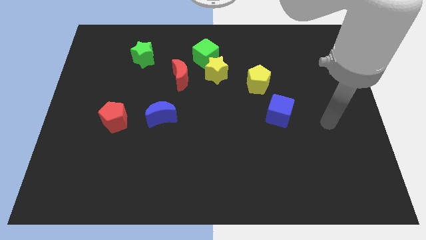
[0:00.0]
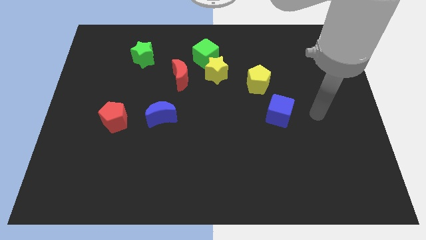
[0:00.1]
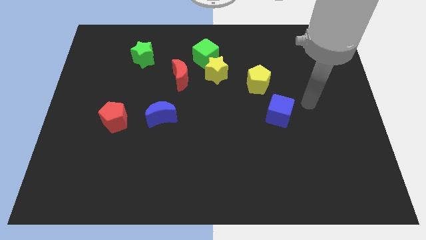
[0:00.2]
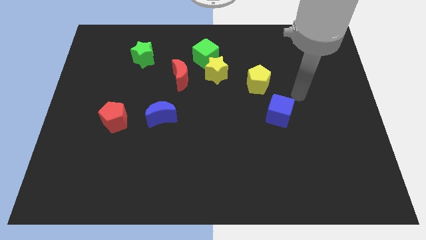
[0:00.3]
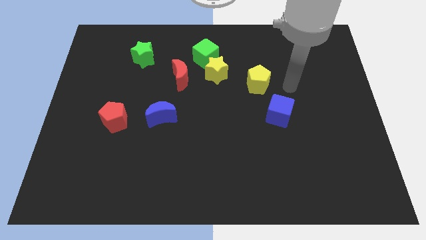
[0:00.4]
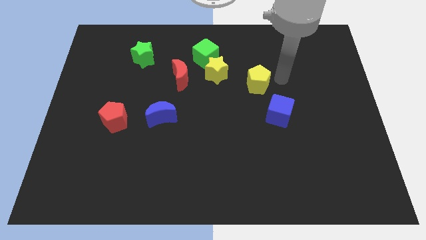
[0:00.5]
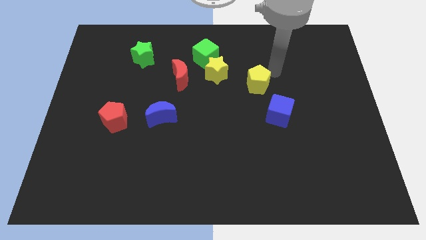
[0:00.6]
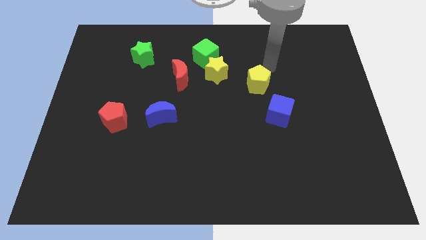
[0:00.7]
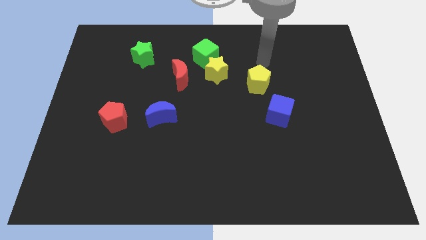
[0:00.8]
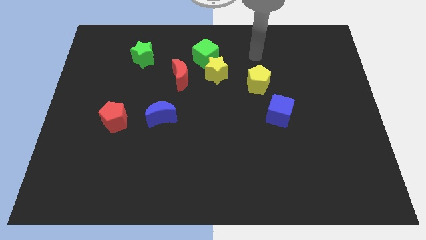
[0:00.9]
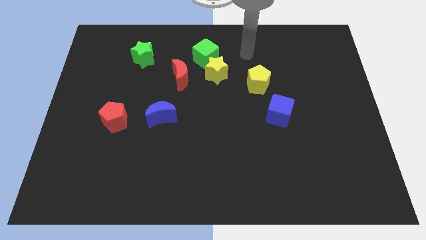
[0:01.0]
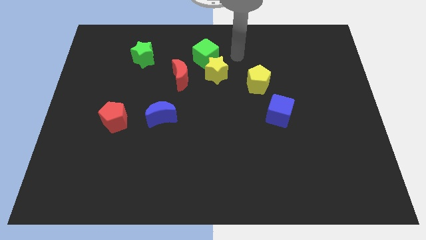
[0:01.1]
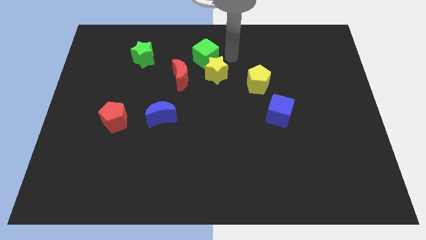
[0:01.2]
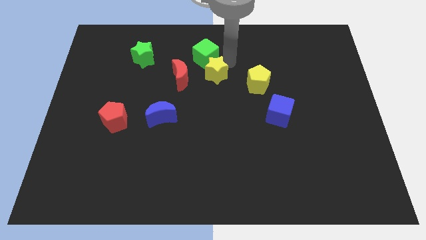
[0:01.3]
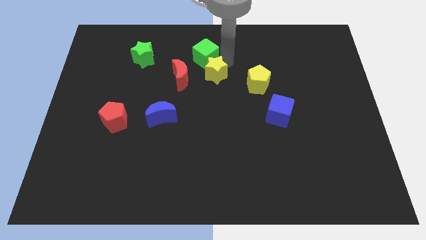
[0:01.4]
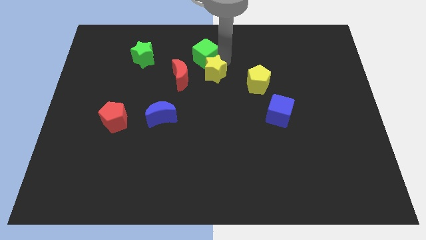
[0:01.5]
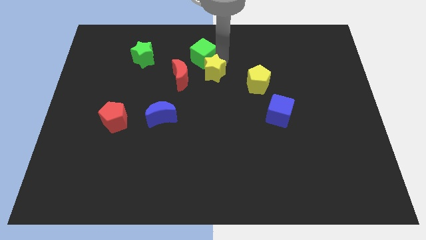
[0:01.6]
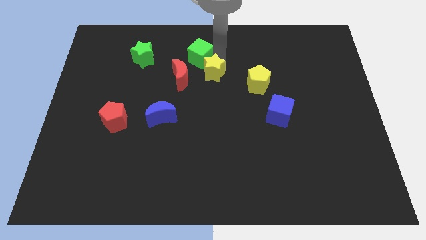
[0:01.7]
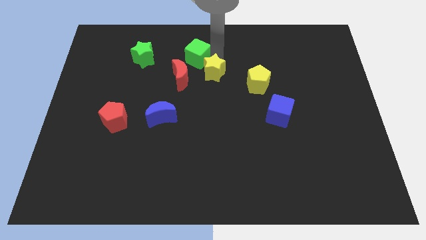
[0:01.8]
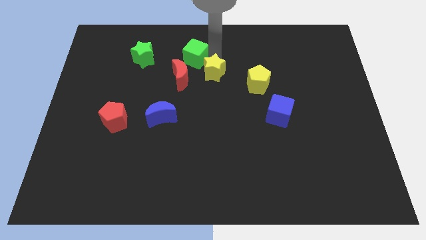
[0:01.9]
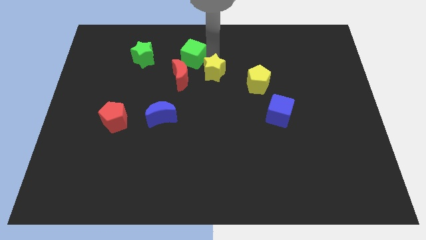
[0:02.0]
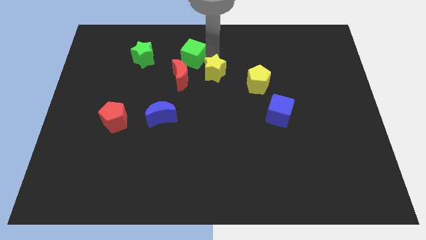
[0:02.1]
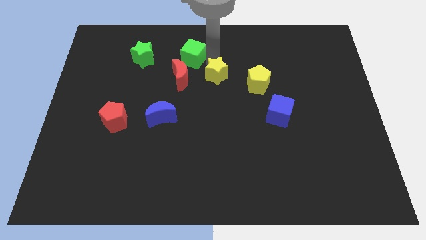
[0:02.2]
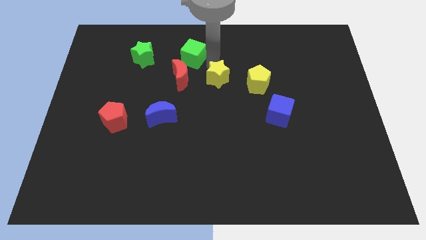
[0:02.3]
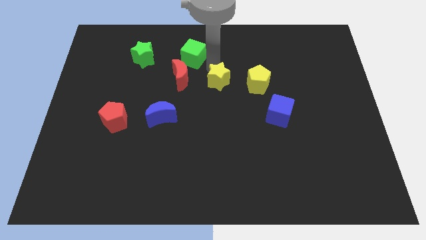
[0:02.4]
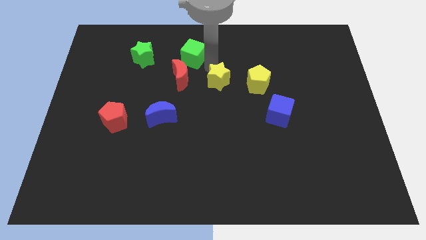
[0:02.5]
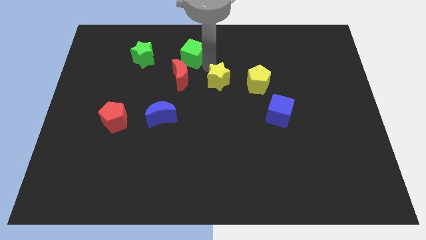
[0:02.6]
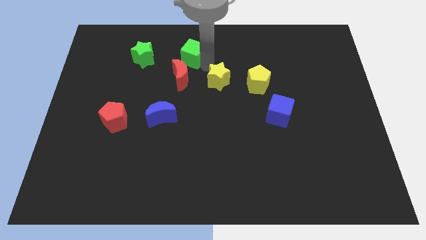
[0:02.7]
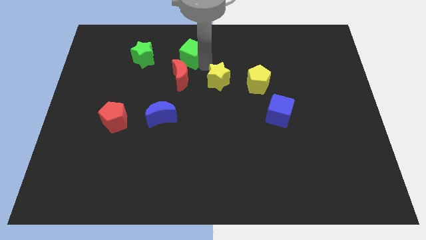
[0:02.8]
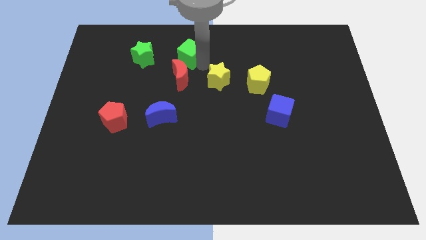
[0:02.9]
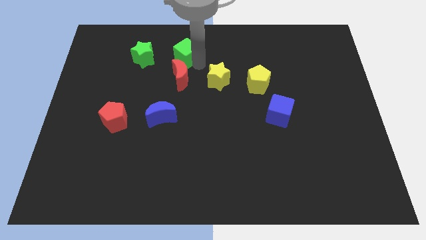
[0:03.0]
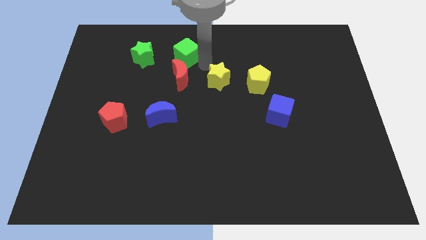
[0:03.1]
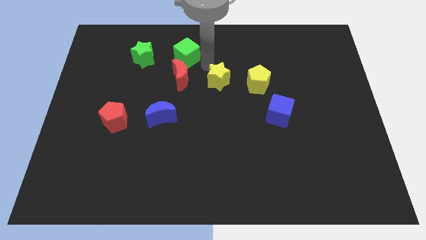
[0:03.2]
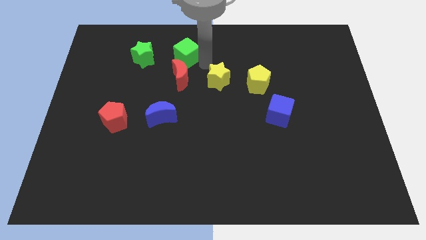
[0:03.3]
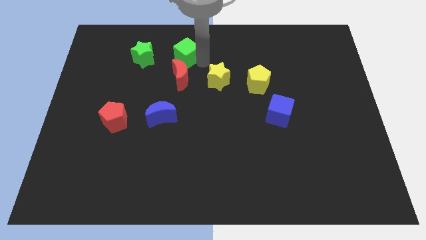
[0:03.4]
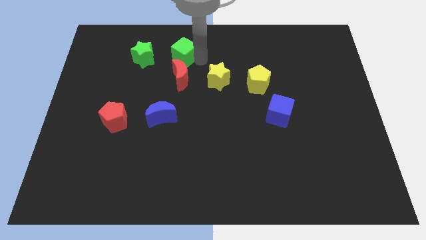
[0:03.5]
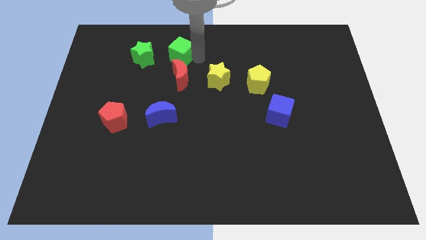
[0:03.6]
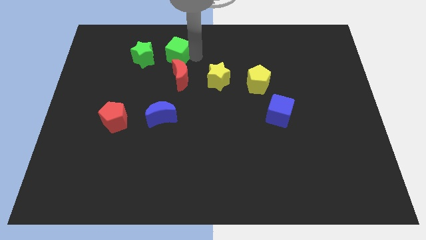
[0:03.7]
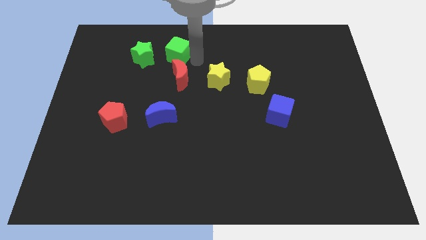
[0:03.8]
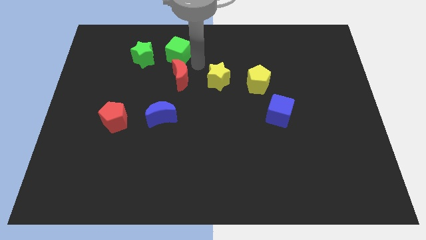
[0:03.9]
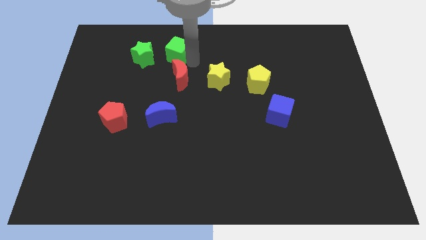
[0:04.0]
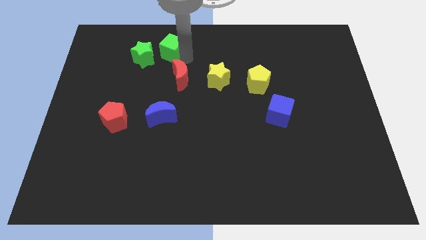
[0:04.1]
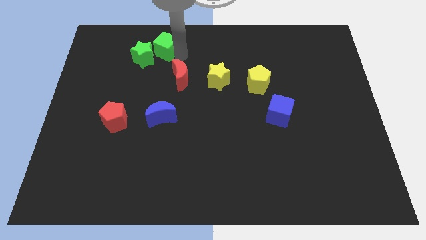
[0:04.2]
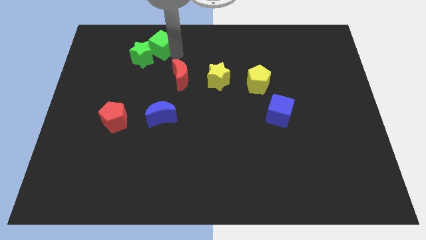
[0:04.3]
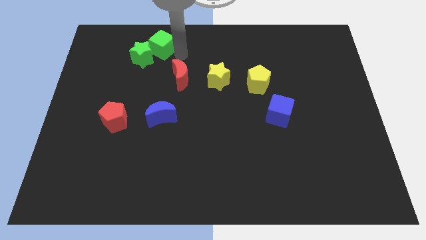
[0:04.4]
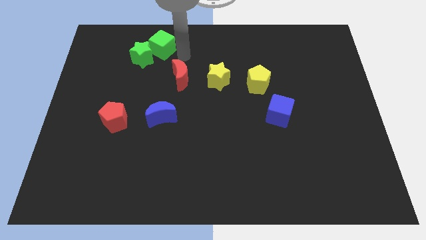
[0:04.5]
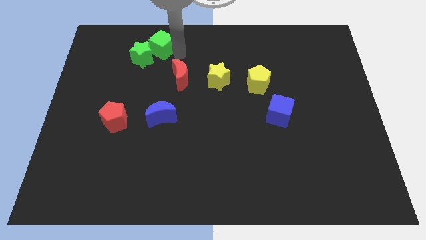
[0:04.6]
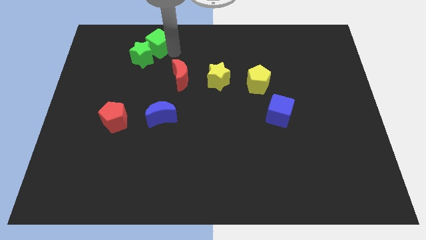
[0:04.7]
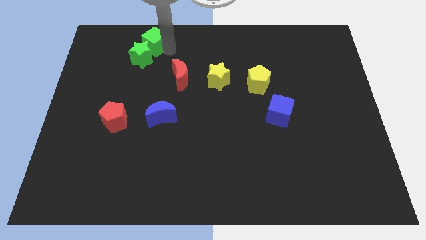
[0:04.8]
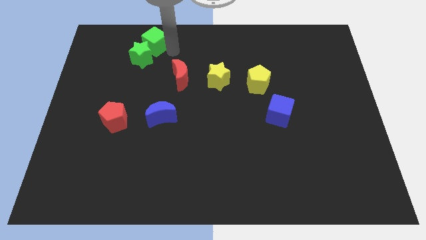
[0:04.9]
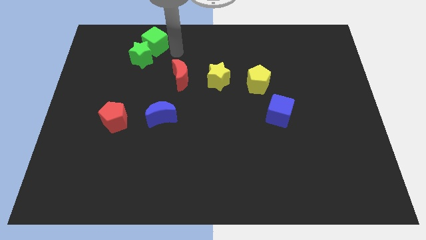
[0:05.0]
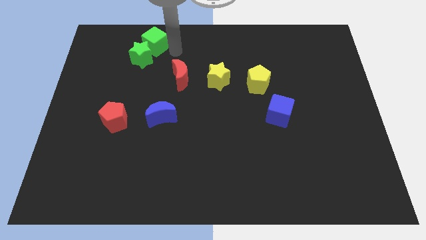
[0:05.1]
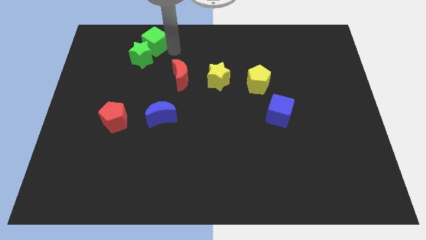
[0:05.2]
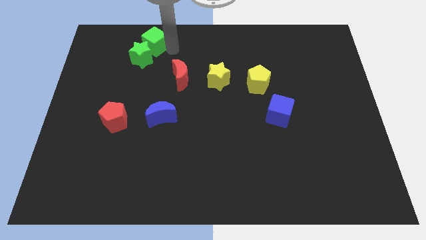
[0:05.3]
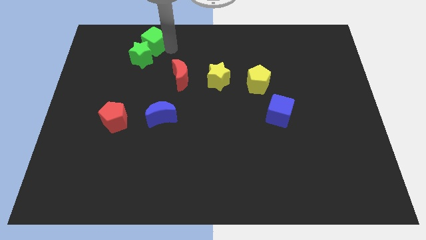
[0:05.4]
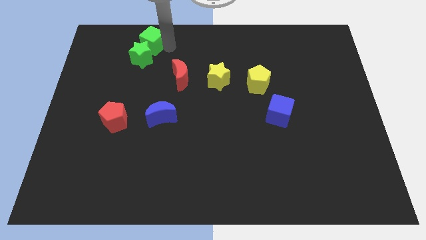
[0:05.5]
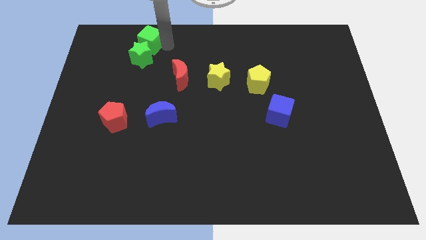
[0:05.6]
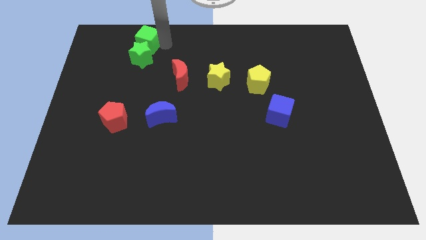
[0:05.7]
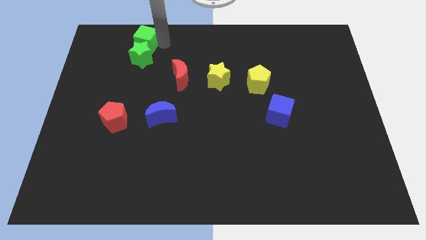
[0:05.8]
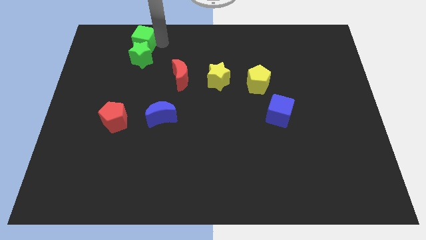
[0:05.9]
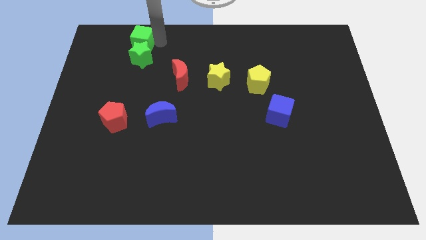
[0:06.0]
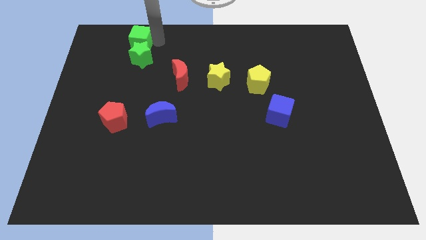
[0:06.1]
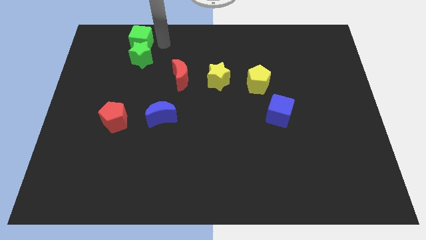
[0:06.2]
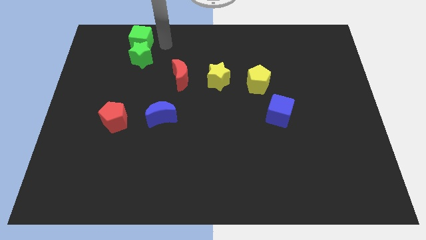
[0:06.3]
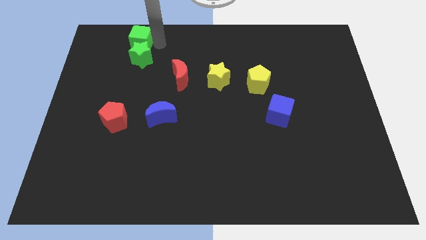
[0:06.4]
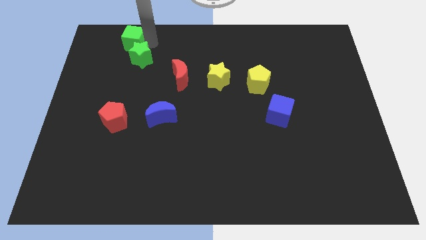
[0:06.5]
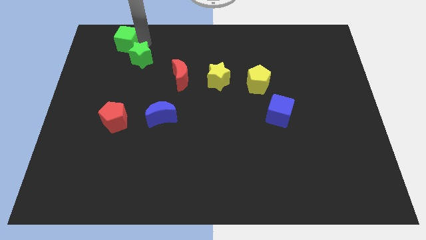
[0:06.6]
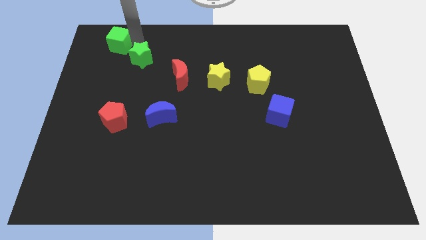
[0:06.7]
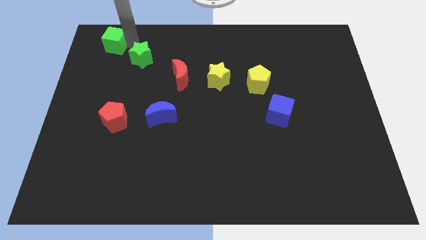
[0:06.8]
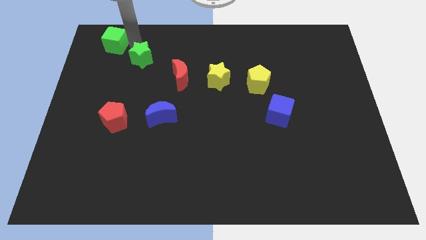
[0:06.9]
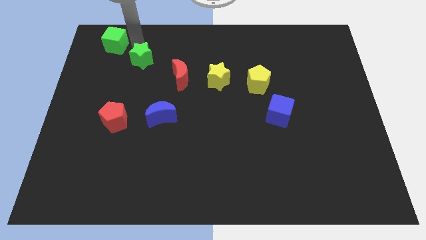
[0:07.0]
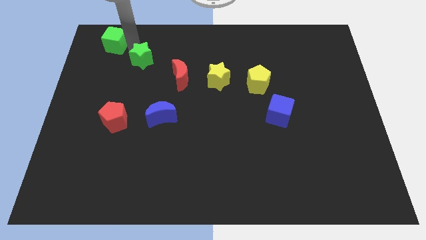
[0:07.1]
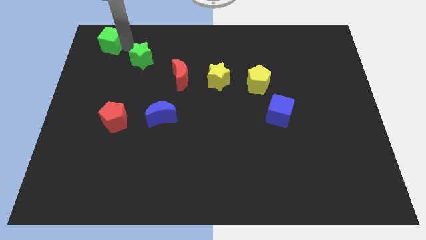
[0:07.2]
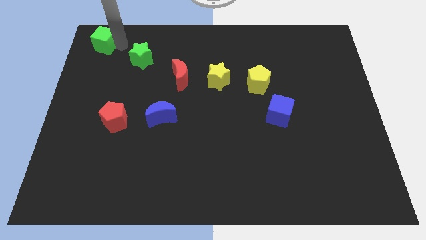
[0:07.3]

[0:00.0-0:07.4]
move the green cube to the top left
